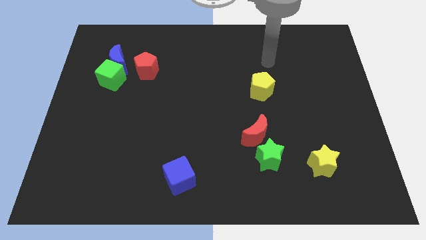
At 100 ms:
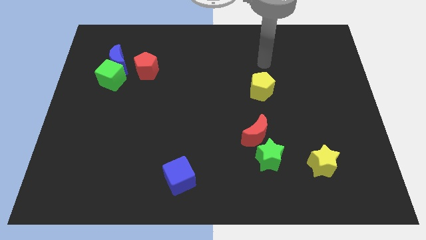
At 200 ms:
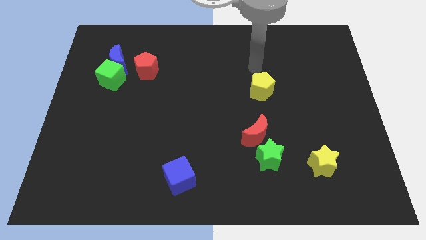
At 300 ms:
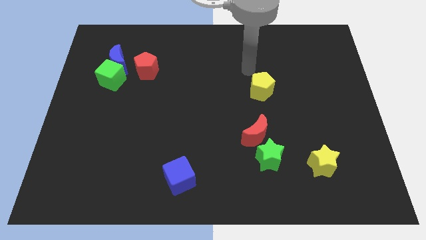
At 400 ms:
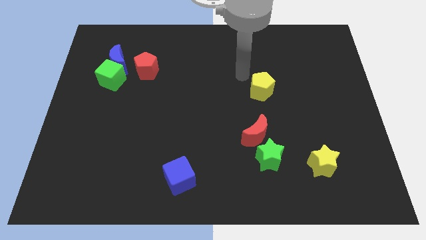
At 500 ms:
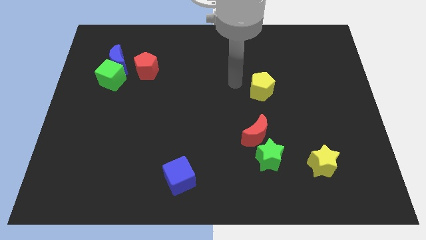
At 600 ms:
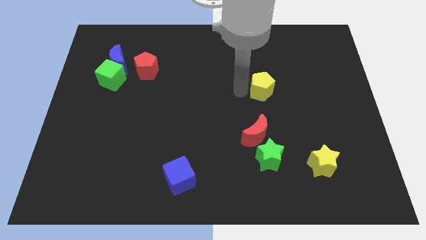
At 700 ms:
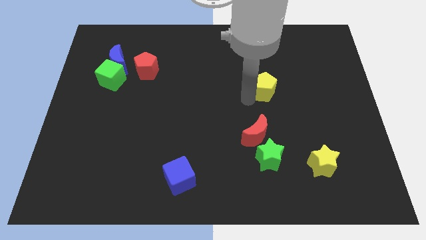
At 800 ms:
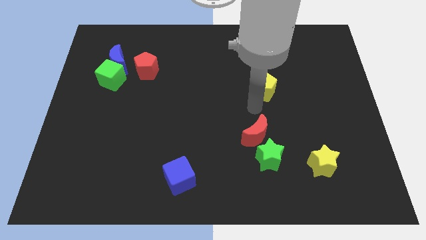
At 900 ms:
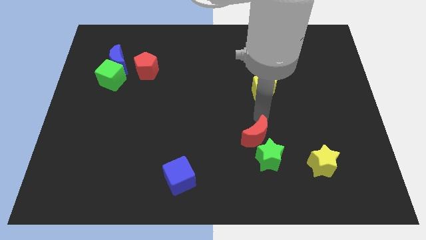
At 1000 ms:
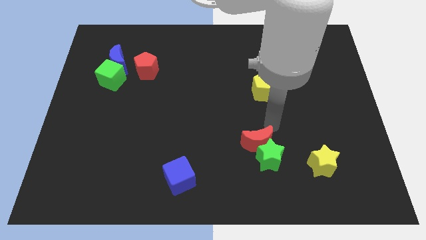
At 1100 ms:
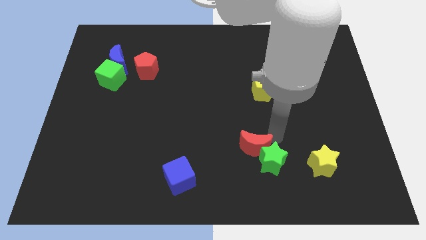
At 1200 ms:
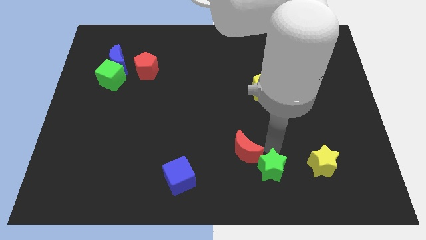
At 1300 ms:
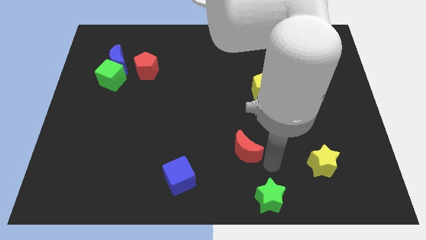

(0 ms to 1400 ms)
move the red moon away from the green star

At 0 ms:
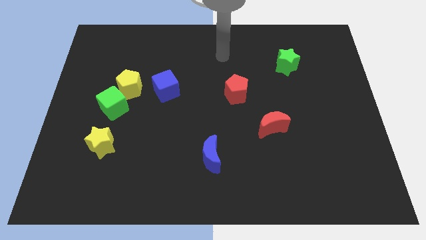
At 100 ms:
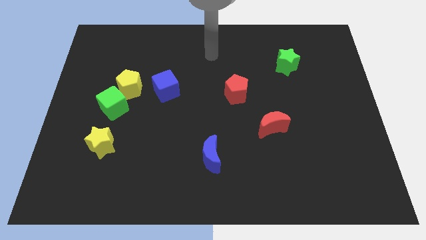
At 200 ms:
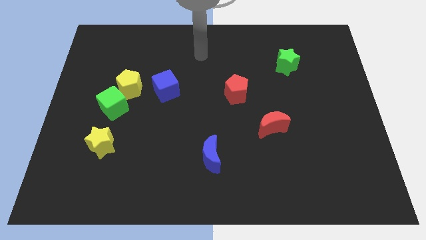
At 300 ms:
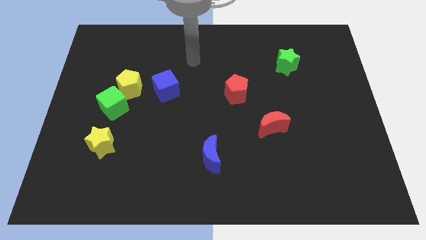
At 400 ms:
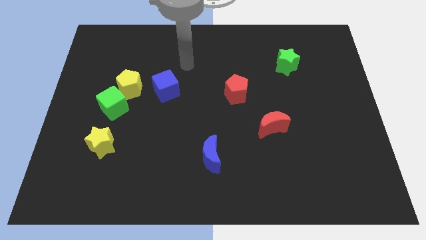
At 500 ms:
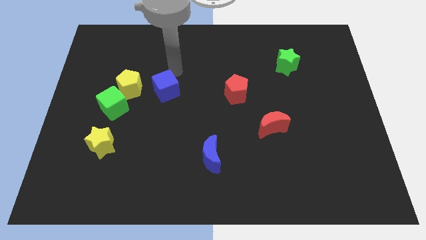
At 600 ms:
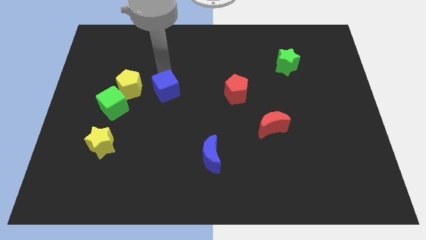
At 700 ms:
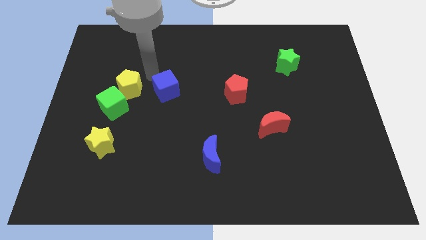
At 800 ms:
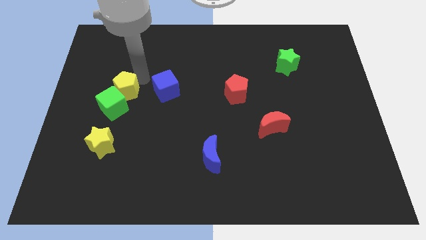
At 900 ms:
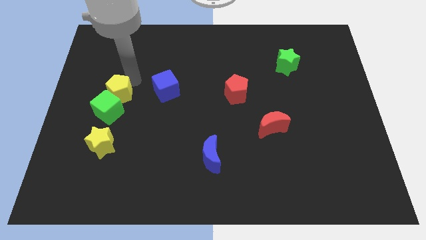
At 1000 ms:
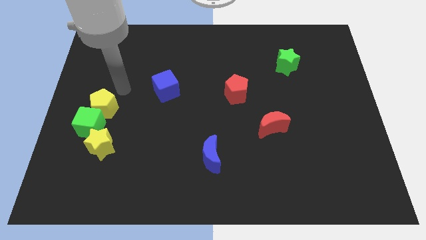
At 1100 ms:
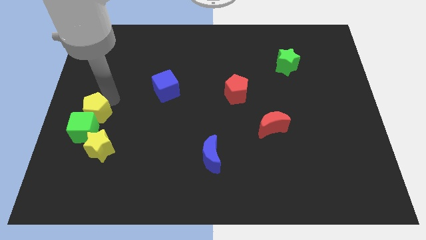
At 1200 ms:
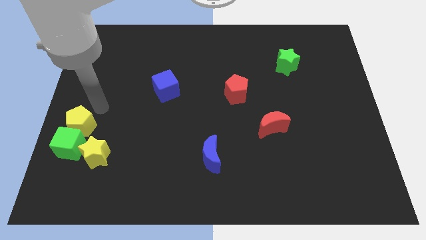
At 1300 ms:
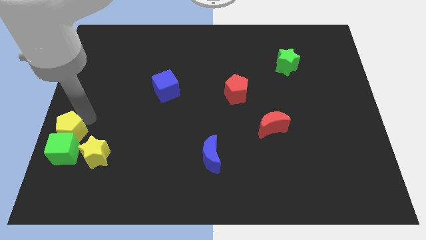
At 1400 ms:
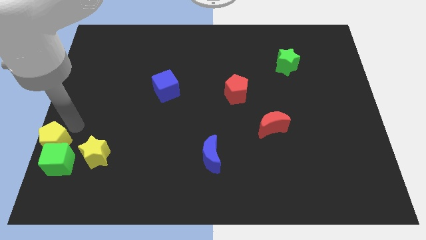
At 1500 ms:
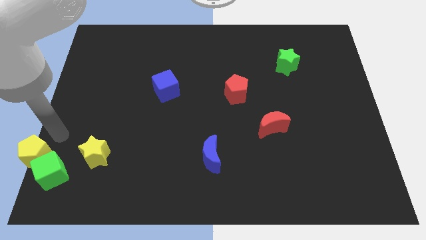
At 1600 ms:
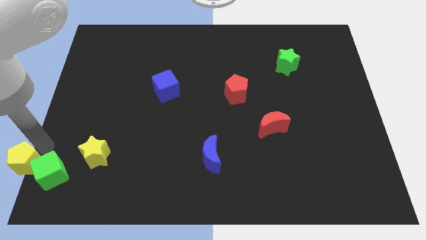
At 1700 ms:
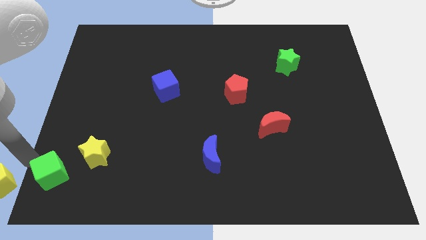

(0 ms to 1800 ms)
pull the green cube apart from the yellow pentagon

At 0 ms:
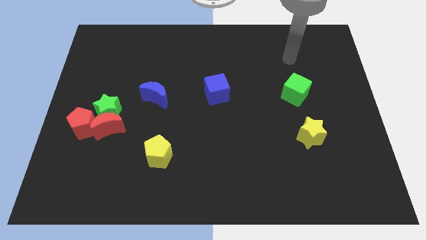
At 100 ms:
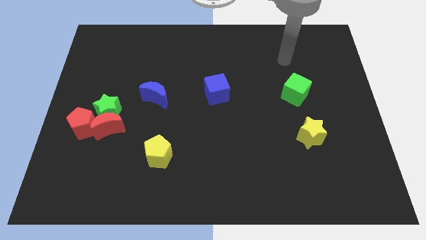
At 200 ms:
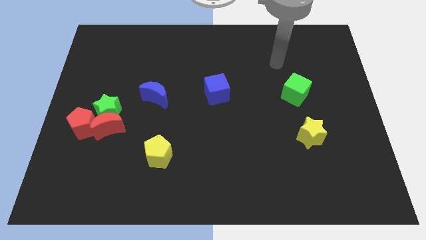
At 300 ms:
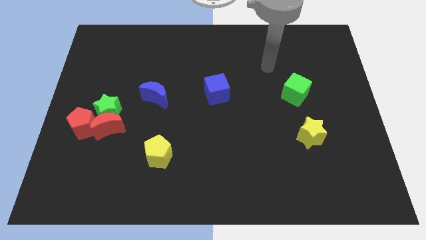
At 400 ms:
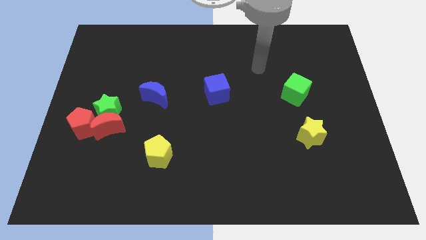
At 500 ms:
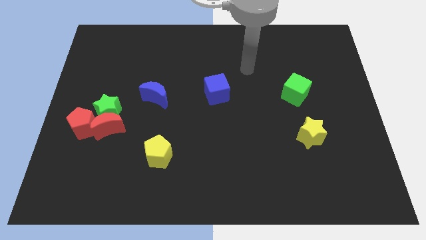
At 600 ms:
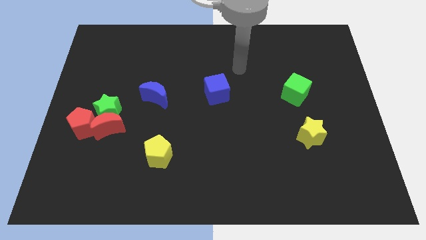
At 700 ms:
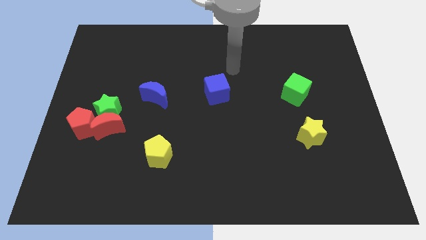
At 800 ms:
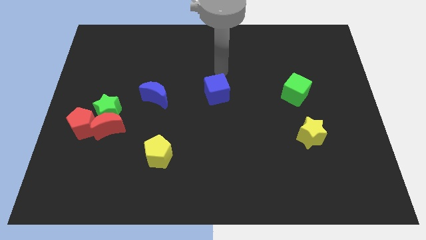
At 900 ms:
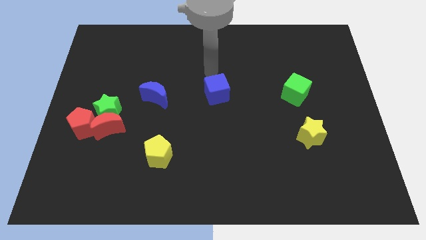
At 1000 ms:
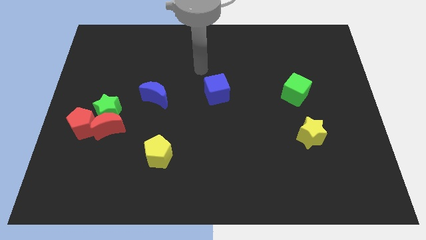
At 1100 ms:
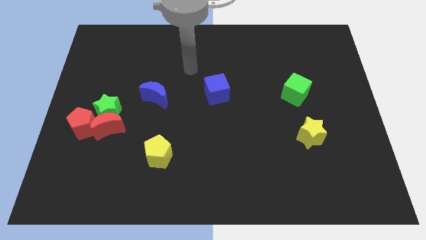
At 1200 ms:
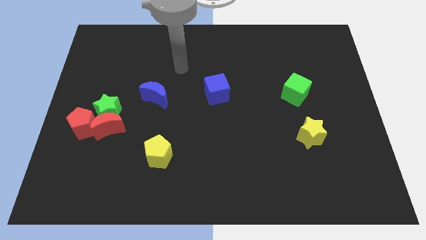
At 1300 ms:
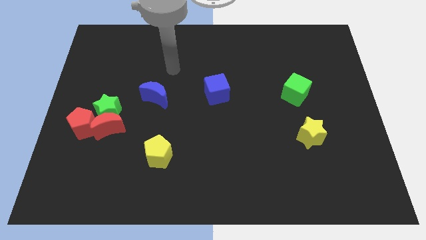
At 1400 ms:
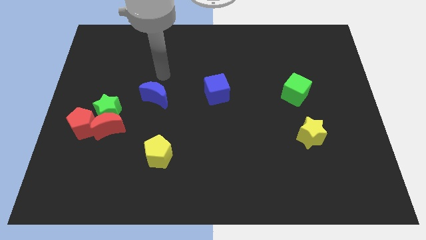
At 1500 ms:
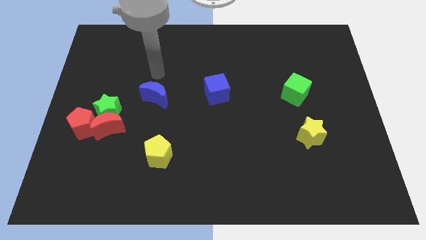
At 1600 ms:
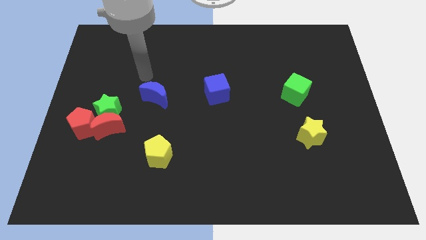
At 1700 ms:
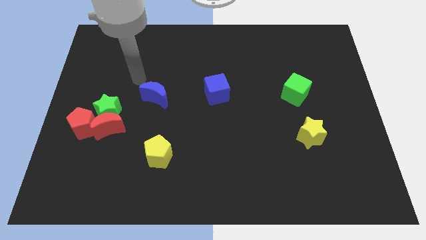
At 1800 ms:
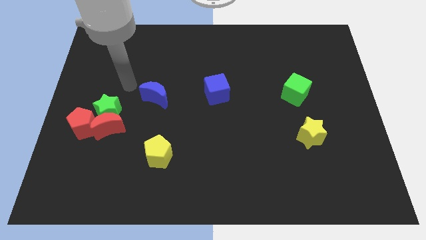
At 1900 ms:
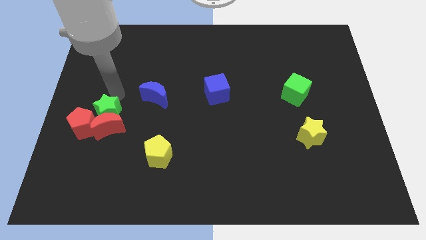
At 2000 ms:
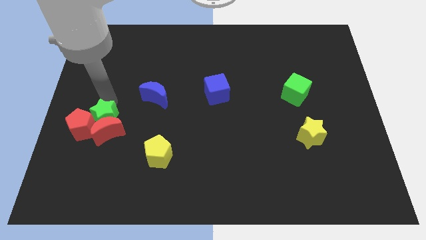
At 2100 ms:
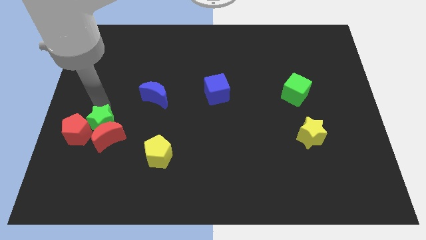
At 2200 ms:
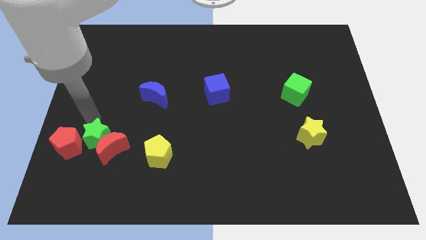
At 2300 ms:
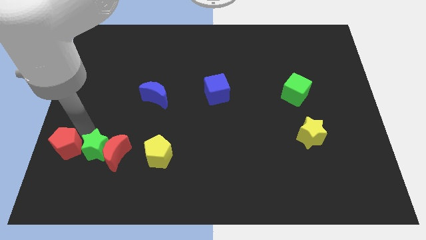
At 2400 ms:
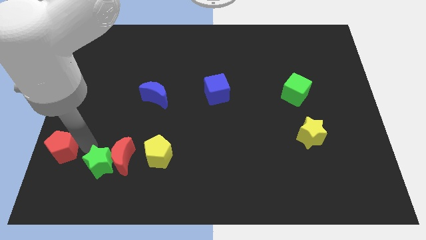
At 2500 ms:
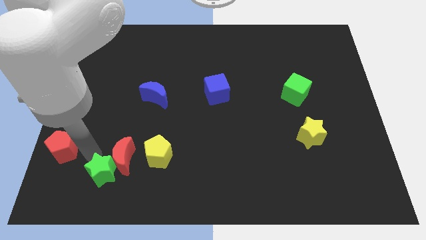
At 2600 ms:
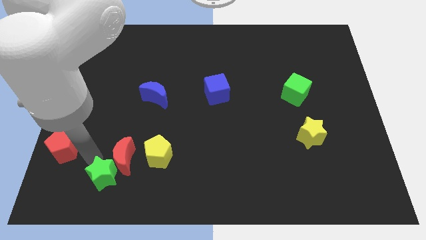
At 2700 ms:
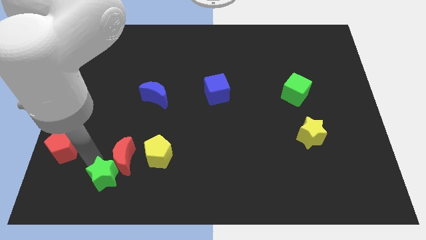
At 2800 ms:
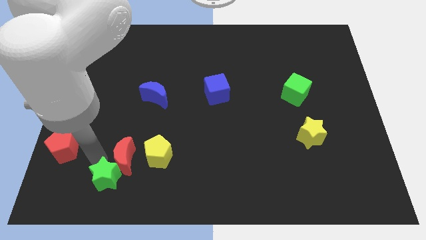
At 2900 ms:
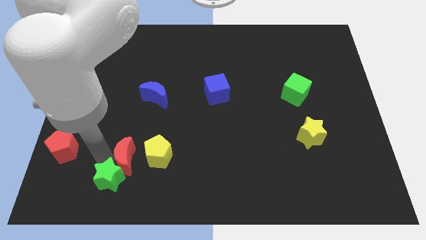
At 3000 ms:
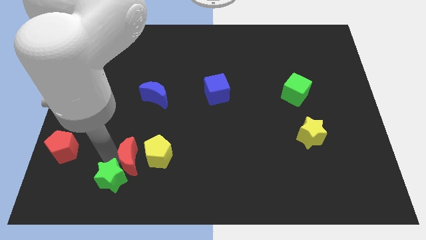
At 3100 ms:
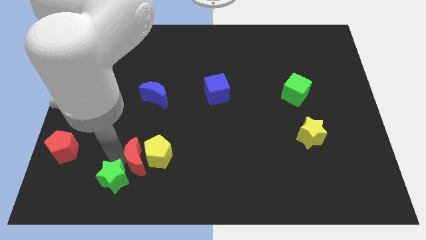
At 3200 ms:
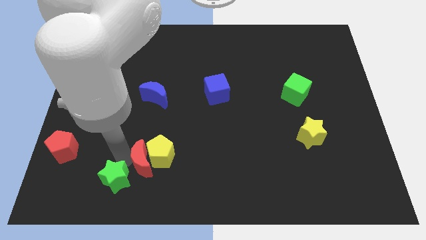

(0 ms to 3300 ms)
pull the red moon apart from the green star and red pentagon

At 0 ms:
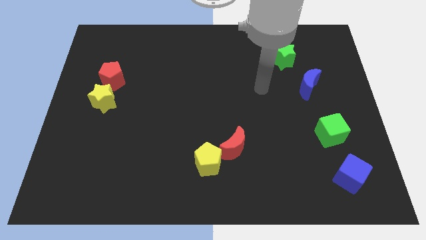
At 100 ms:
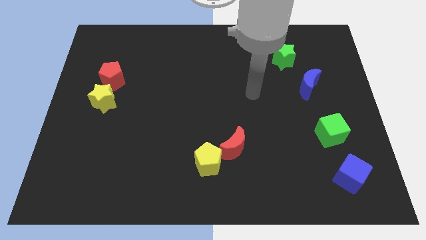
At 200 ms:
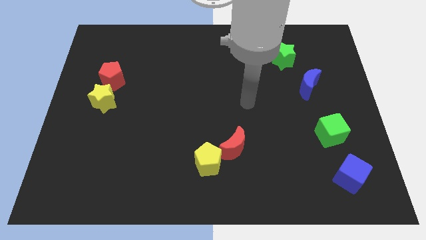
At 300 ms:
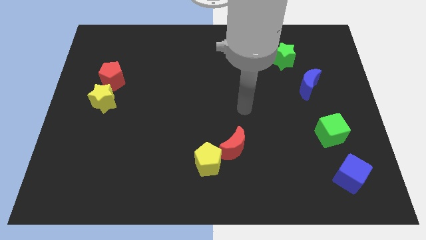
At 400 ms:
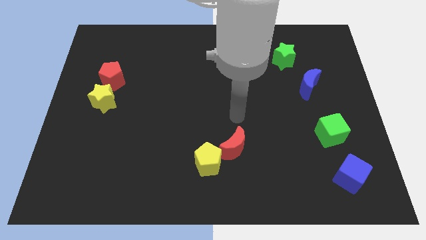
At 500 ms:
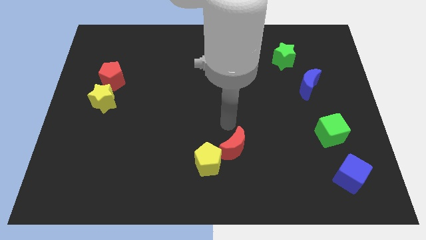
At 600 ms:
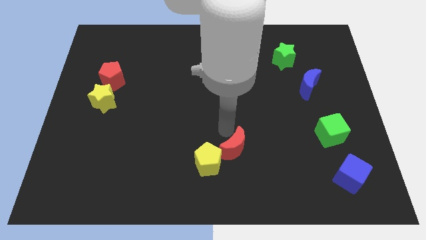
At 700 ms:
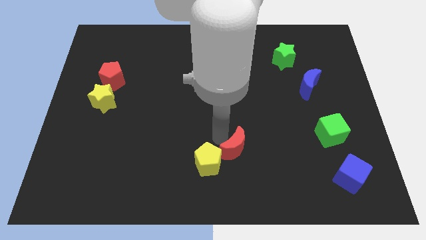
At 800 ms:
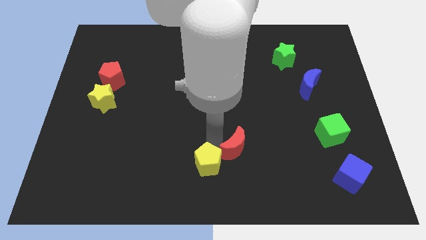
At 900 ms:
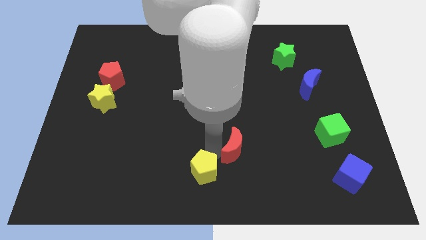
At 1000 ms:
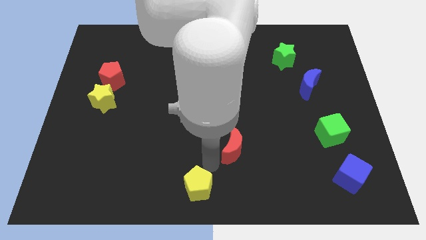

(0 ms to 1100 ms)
pull the red moon apart from the yellow pentagon

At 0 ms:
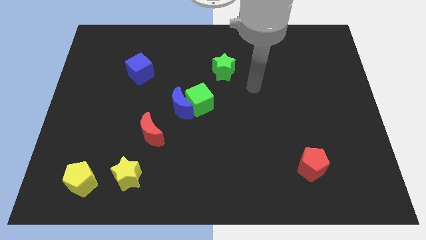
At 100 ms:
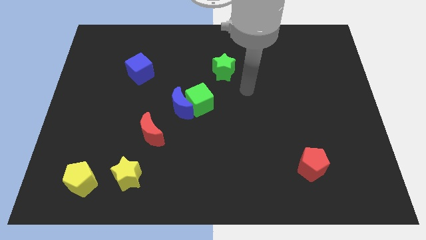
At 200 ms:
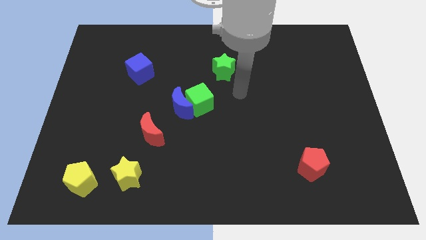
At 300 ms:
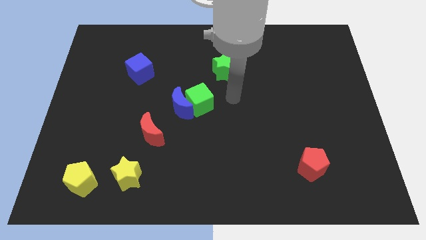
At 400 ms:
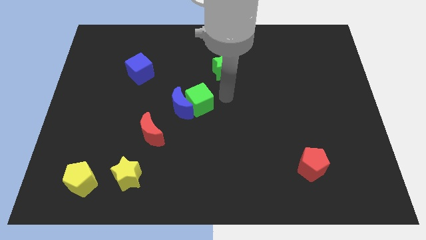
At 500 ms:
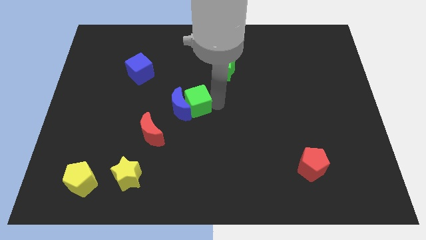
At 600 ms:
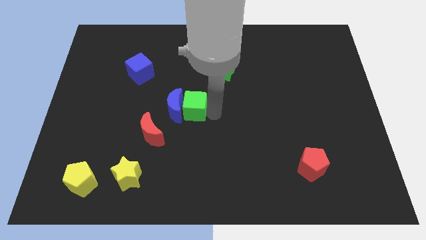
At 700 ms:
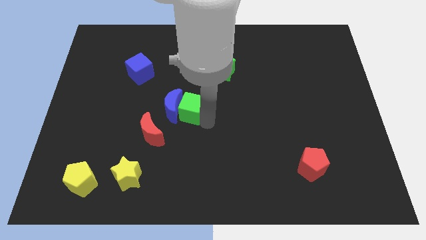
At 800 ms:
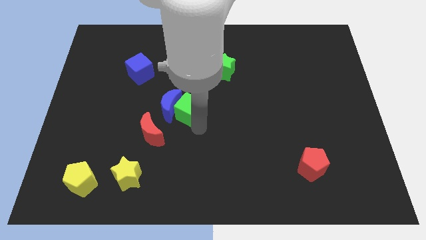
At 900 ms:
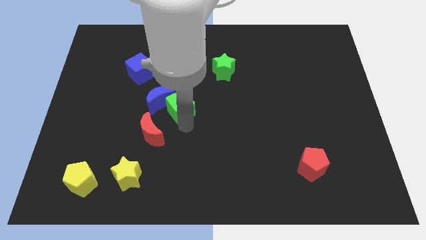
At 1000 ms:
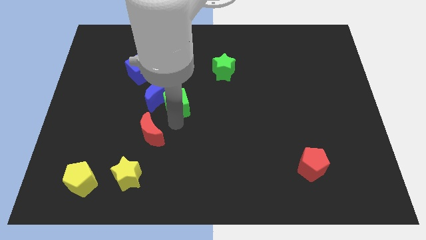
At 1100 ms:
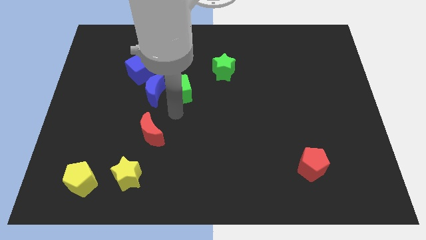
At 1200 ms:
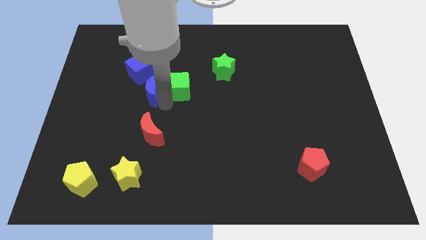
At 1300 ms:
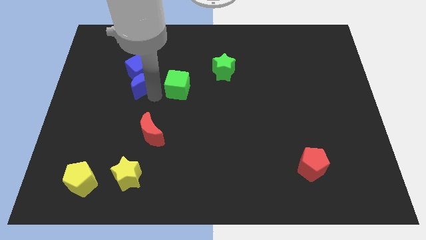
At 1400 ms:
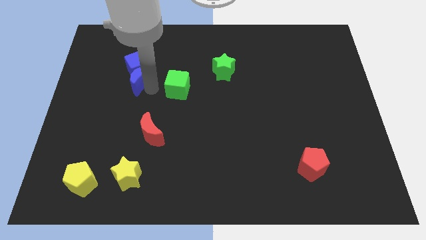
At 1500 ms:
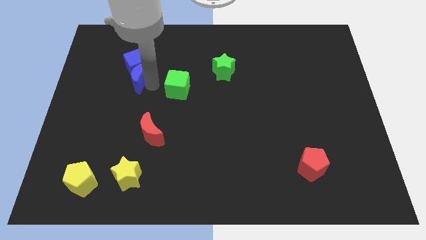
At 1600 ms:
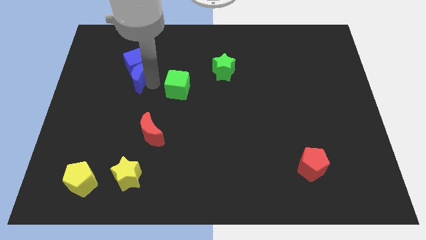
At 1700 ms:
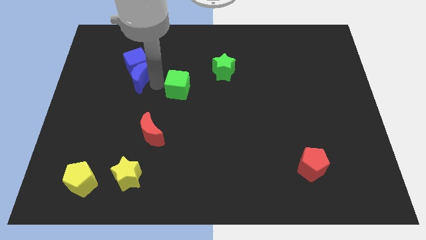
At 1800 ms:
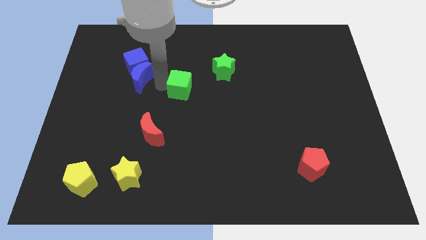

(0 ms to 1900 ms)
separate the green cube from the blue moon
